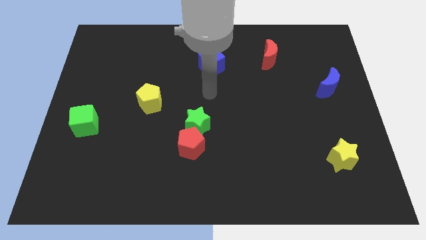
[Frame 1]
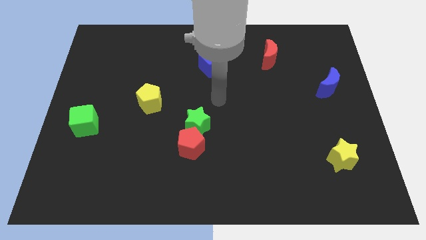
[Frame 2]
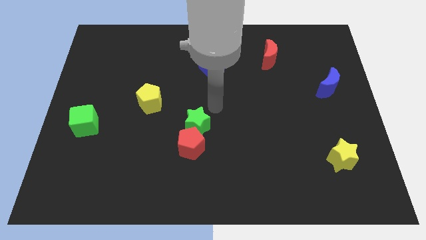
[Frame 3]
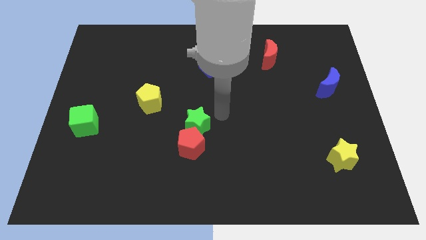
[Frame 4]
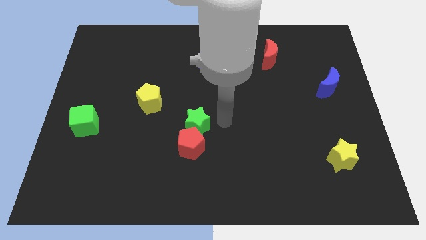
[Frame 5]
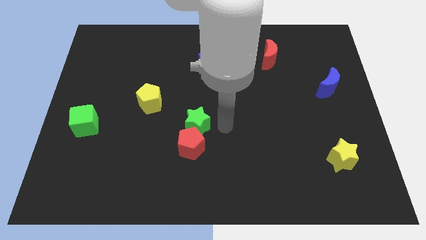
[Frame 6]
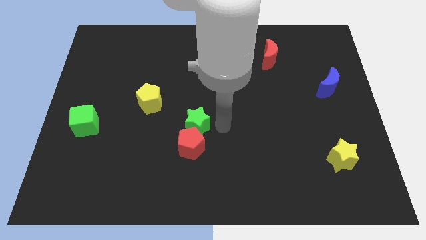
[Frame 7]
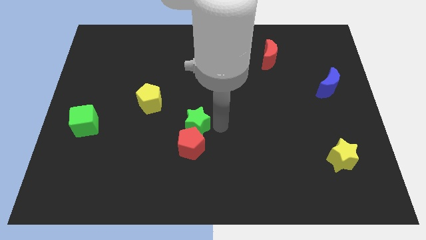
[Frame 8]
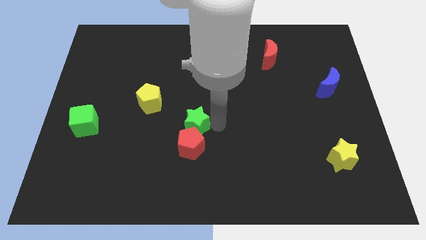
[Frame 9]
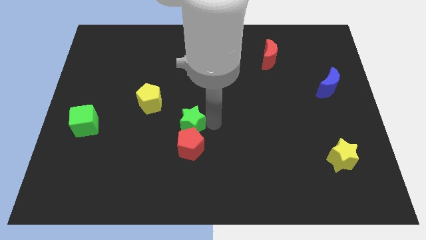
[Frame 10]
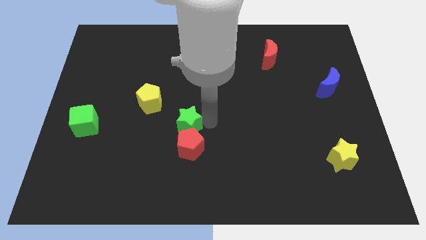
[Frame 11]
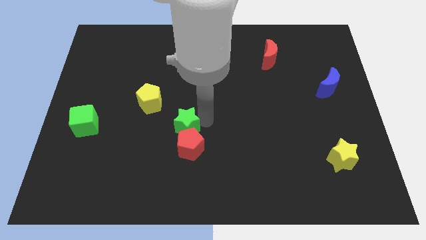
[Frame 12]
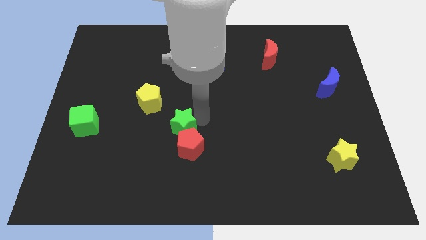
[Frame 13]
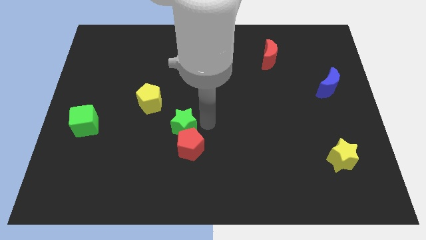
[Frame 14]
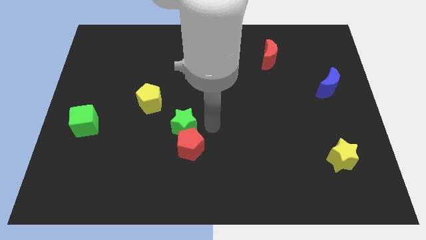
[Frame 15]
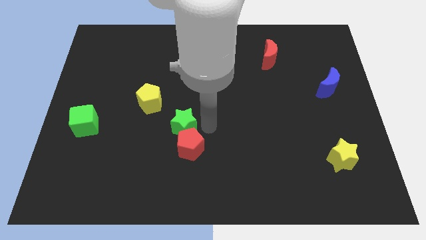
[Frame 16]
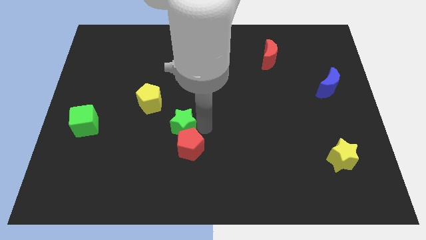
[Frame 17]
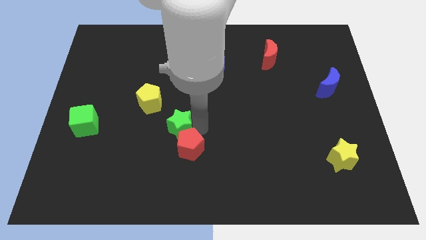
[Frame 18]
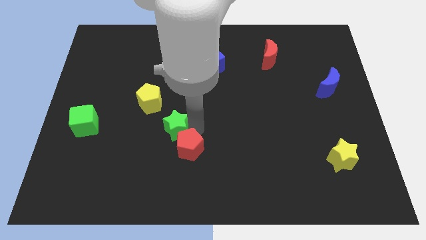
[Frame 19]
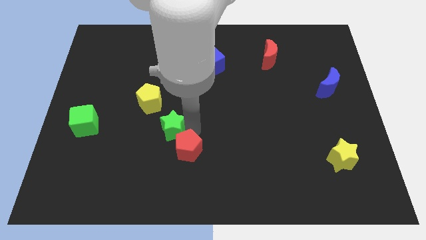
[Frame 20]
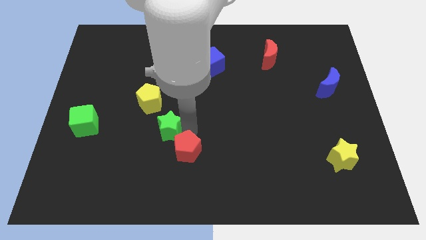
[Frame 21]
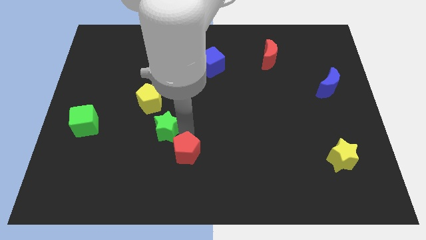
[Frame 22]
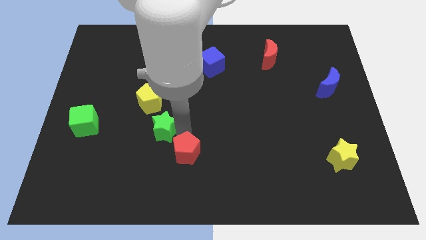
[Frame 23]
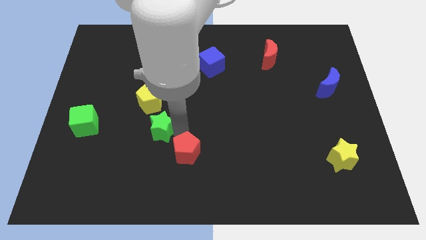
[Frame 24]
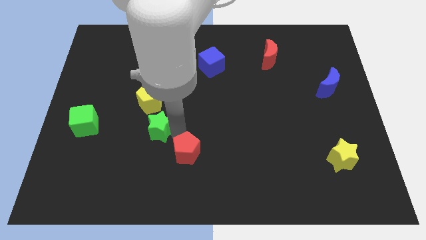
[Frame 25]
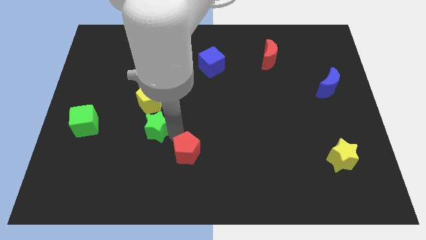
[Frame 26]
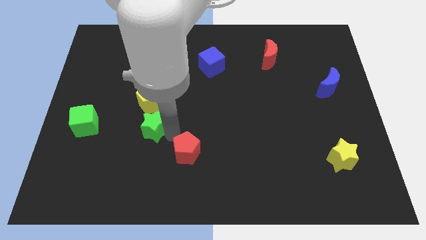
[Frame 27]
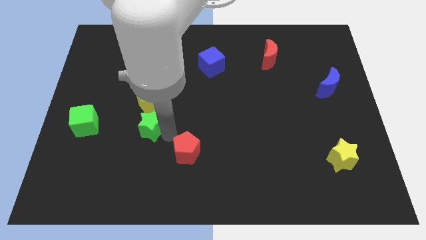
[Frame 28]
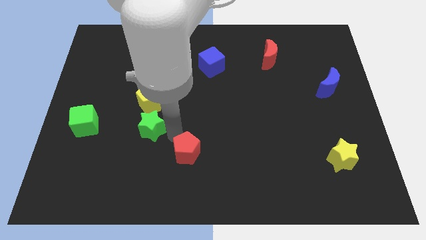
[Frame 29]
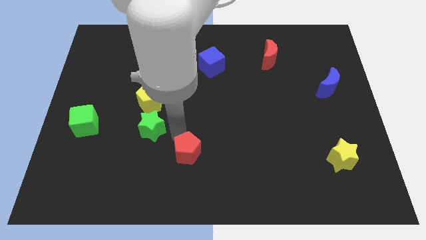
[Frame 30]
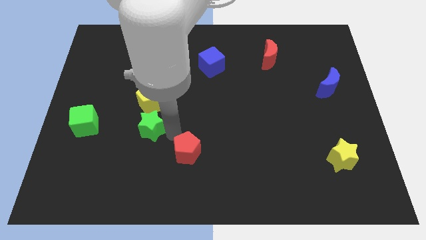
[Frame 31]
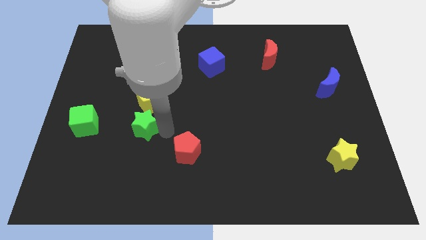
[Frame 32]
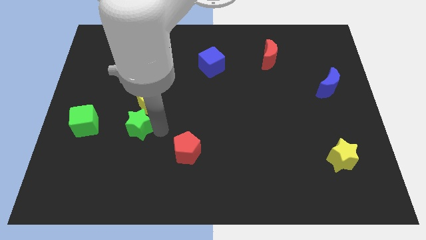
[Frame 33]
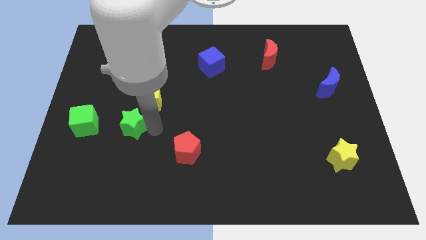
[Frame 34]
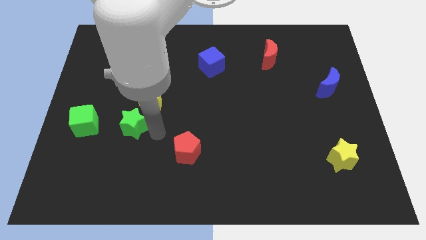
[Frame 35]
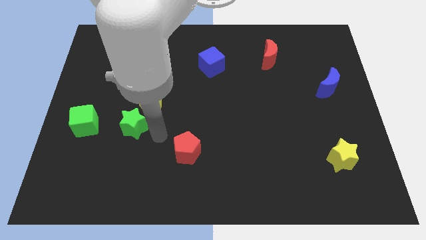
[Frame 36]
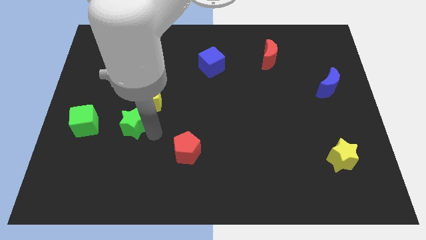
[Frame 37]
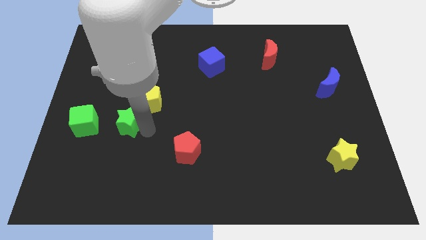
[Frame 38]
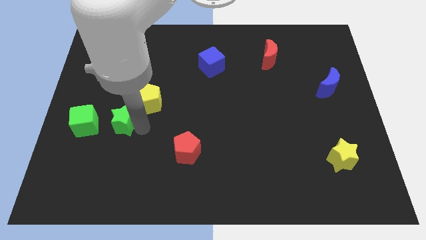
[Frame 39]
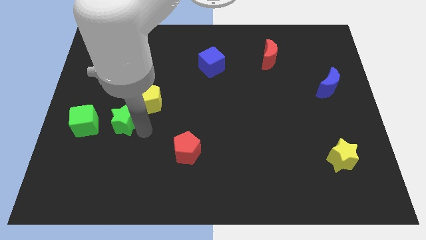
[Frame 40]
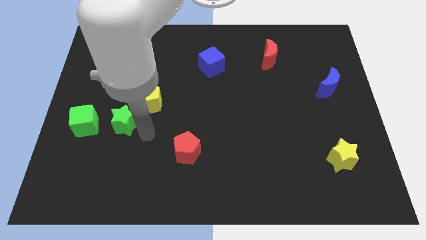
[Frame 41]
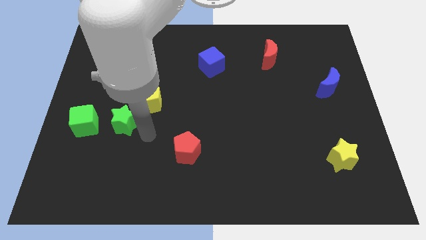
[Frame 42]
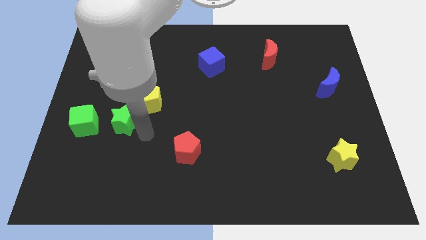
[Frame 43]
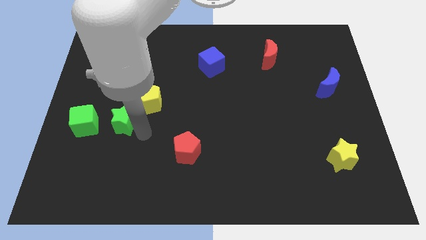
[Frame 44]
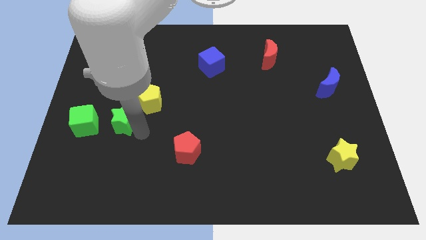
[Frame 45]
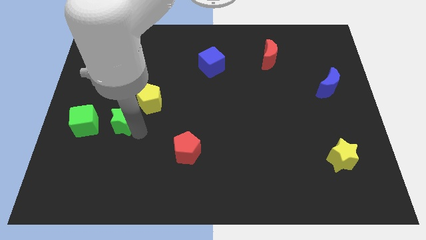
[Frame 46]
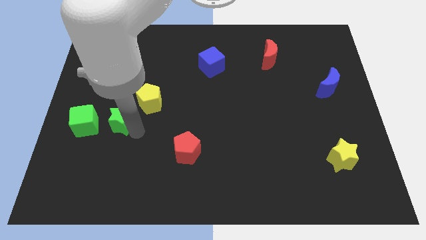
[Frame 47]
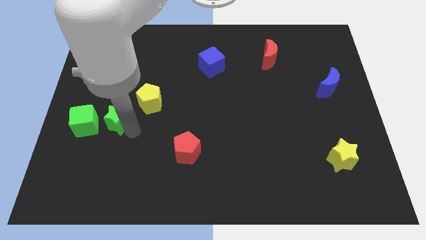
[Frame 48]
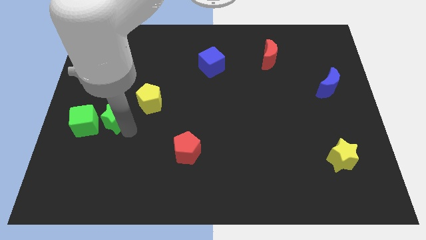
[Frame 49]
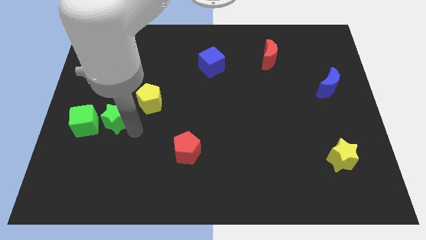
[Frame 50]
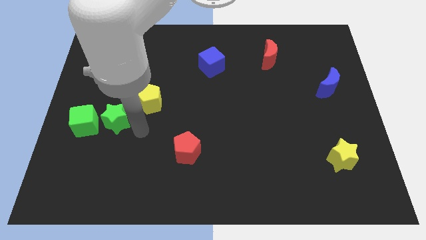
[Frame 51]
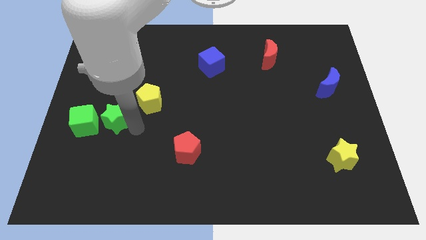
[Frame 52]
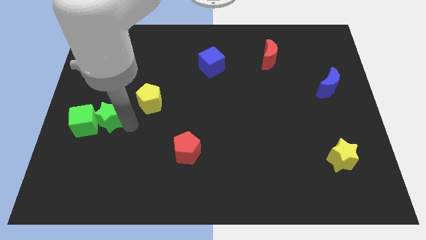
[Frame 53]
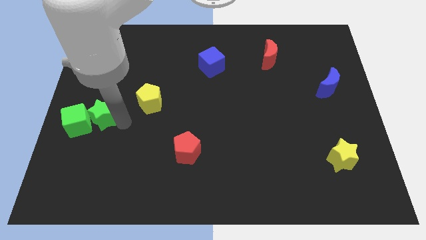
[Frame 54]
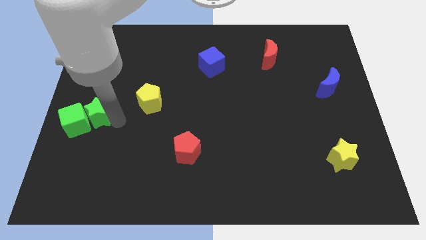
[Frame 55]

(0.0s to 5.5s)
slide the green star to the left side
